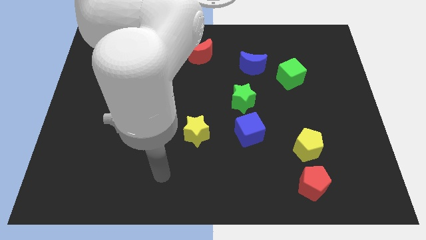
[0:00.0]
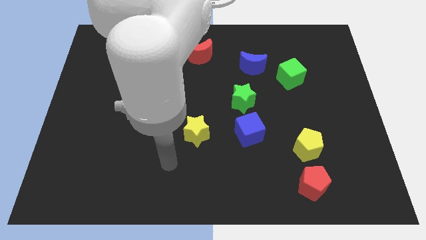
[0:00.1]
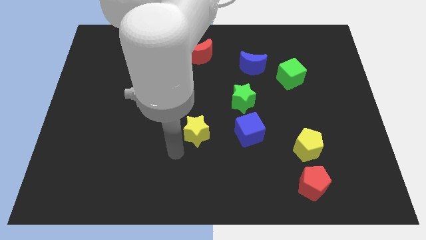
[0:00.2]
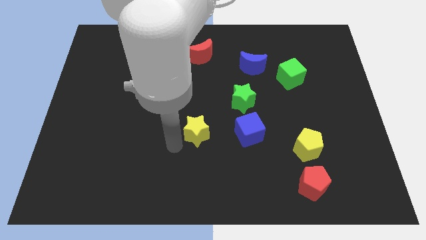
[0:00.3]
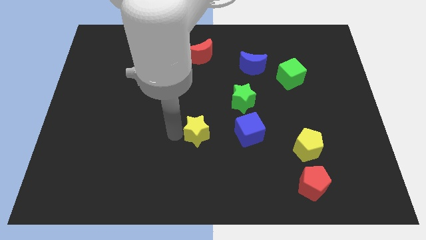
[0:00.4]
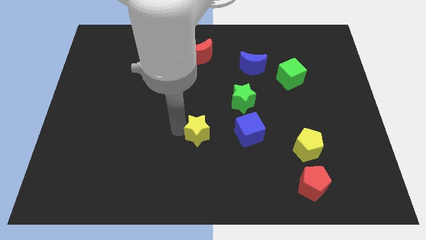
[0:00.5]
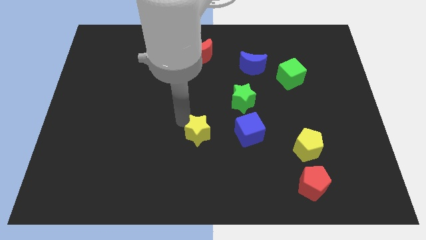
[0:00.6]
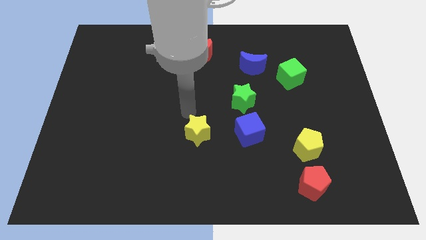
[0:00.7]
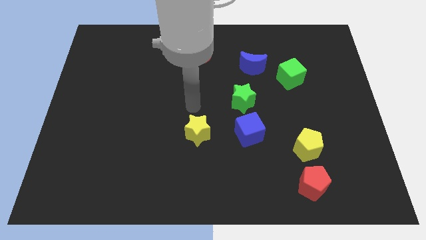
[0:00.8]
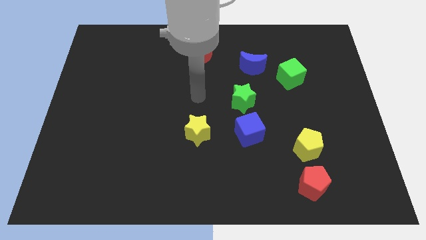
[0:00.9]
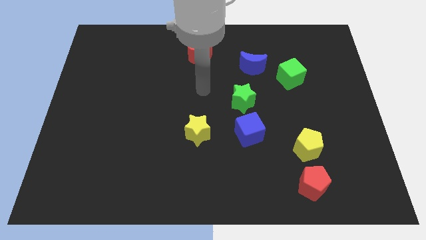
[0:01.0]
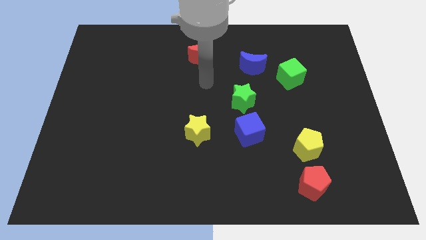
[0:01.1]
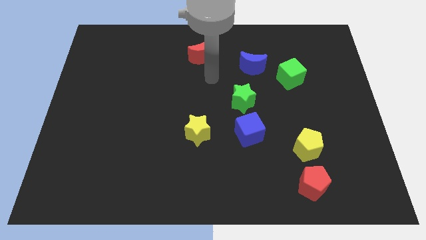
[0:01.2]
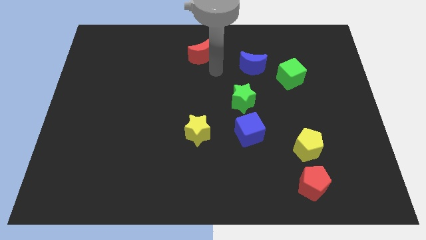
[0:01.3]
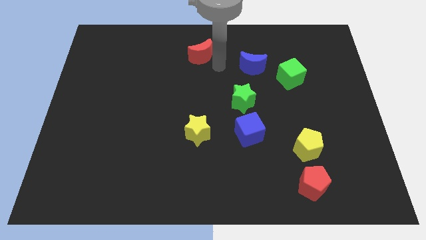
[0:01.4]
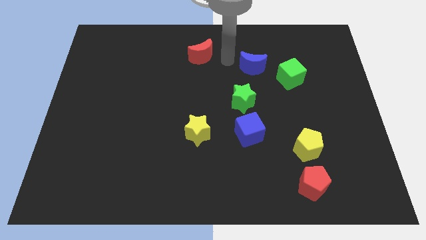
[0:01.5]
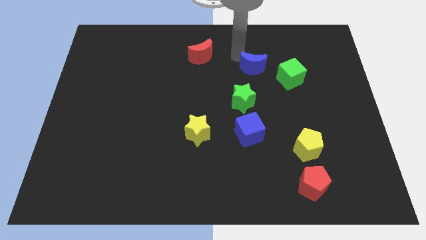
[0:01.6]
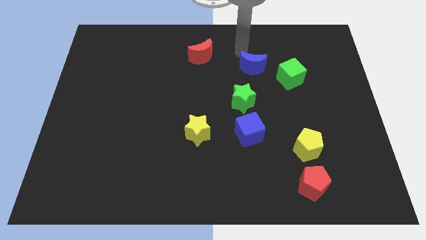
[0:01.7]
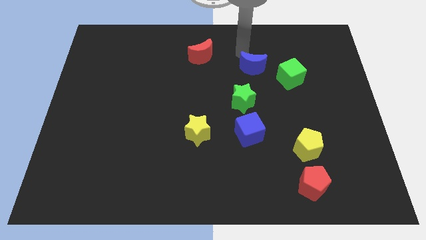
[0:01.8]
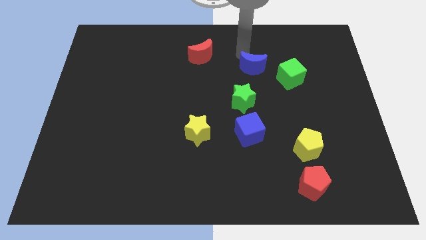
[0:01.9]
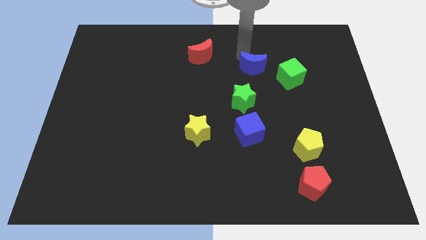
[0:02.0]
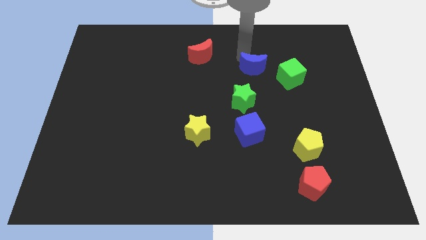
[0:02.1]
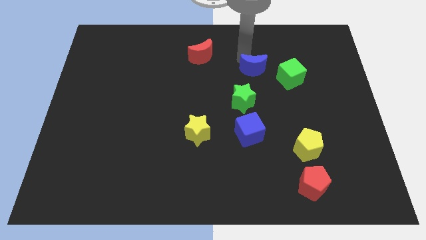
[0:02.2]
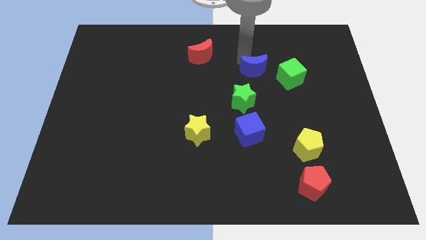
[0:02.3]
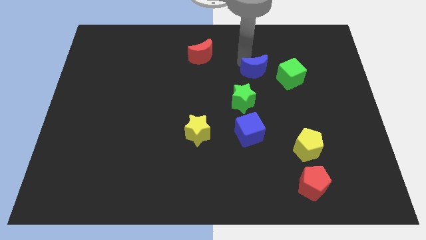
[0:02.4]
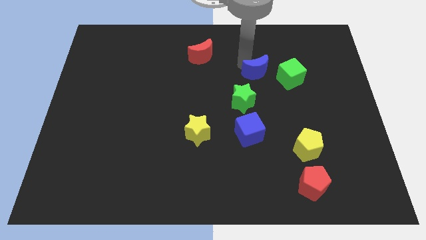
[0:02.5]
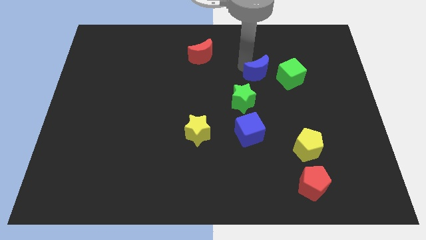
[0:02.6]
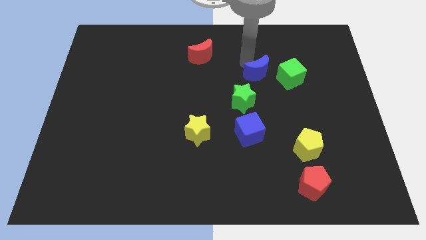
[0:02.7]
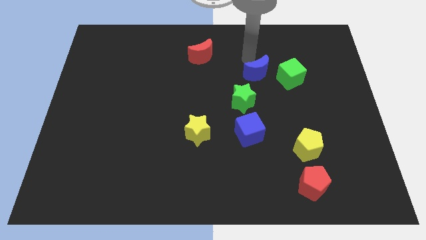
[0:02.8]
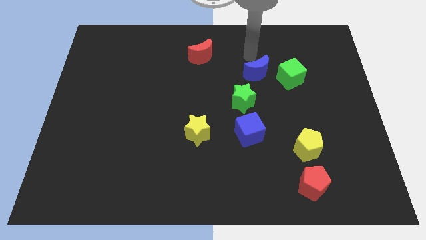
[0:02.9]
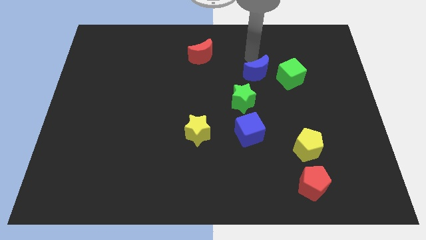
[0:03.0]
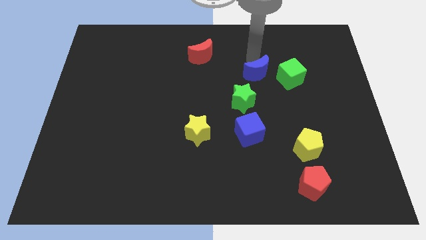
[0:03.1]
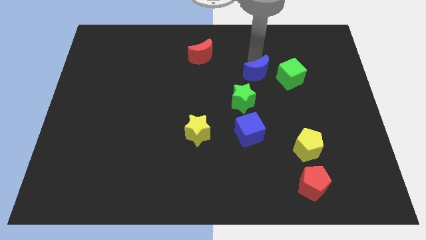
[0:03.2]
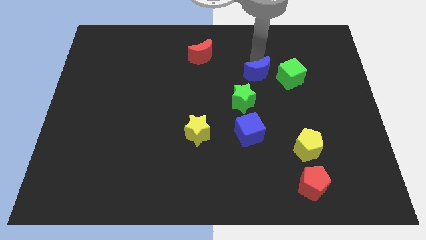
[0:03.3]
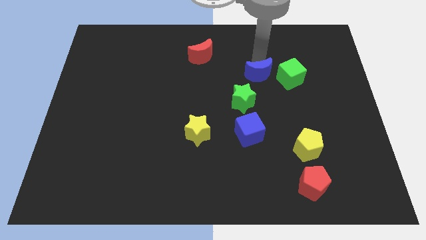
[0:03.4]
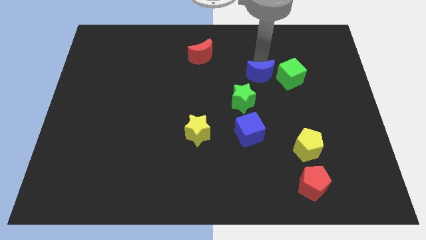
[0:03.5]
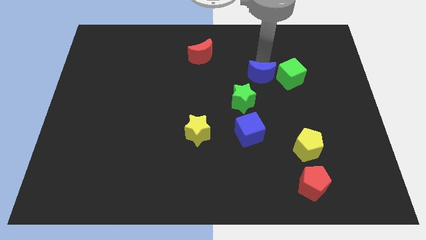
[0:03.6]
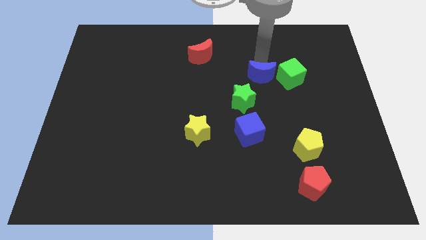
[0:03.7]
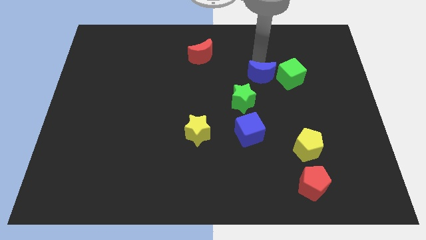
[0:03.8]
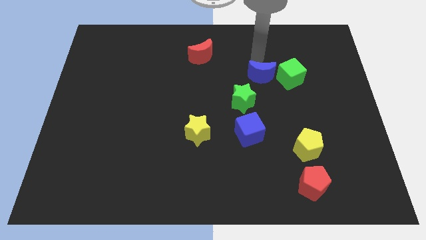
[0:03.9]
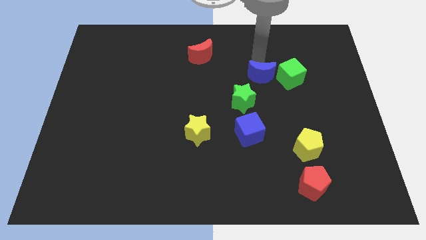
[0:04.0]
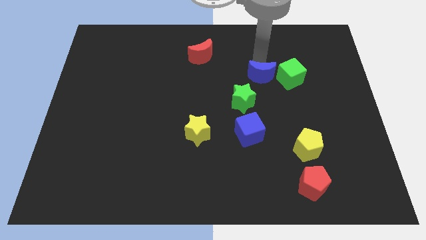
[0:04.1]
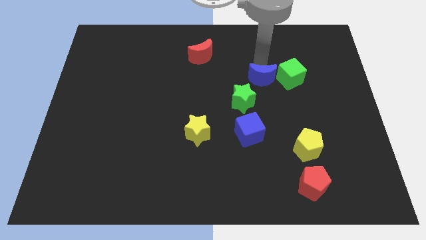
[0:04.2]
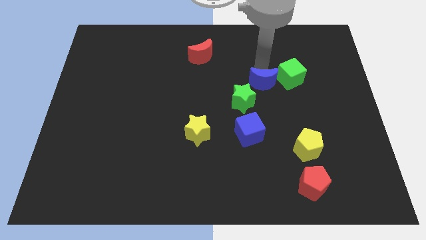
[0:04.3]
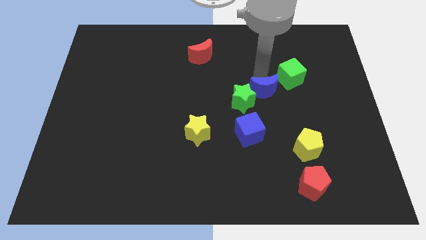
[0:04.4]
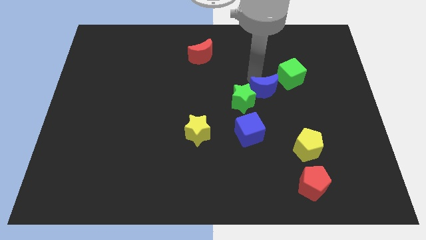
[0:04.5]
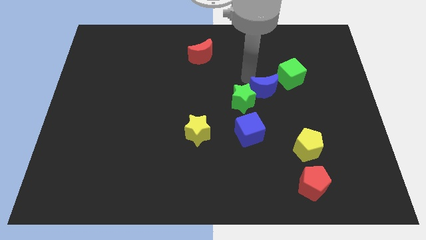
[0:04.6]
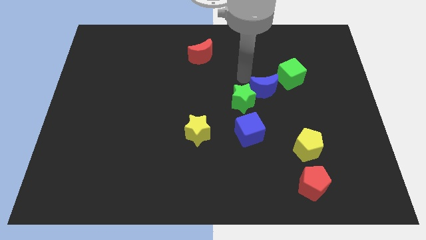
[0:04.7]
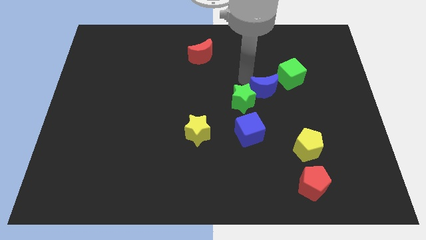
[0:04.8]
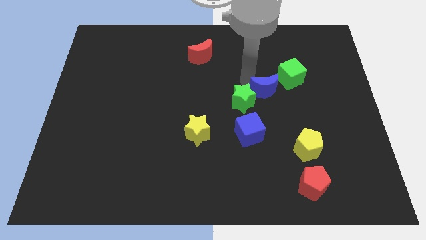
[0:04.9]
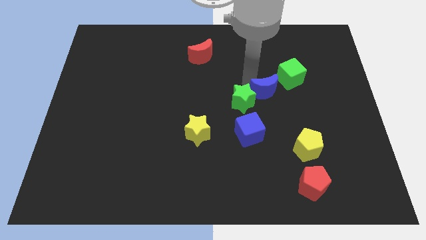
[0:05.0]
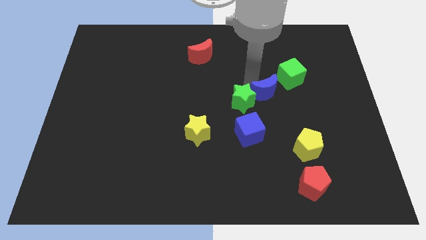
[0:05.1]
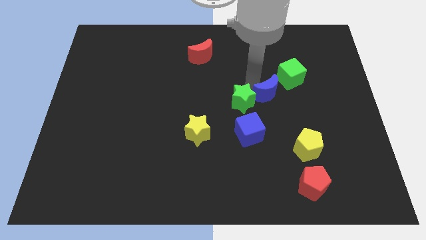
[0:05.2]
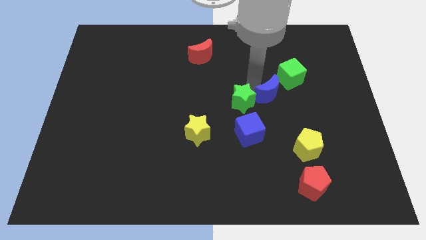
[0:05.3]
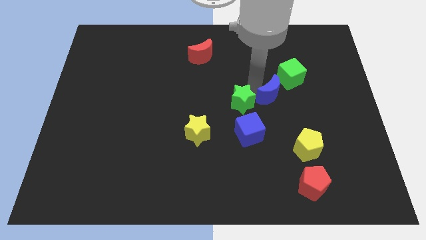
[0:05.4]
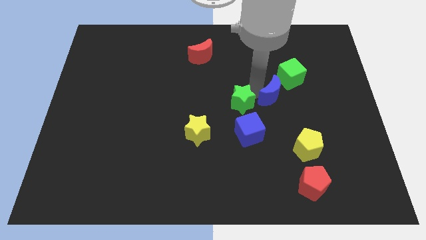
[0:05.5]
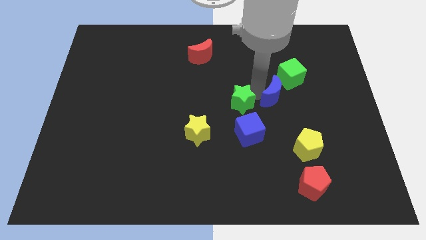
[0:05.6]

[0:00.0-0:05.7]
move the blue moon to the bottom side of the green cube

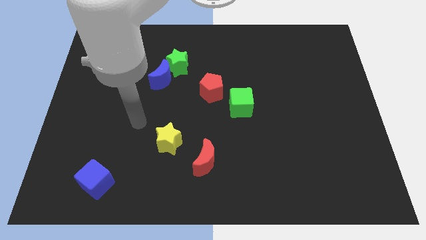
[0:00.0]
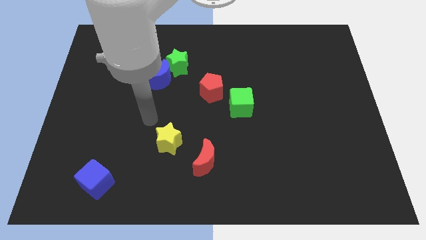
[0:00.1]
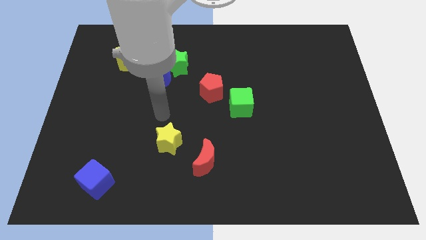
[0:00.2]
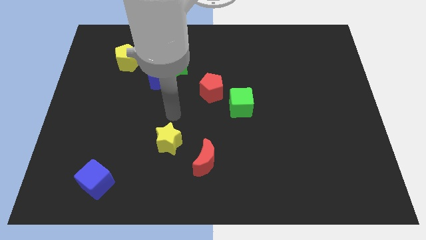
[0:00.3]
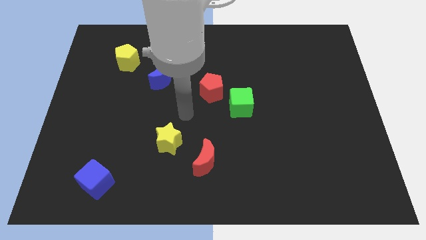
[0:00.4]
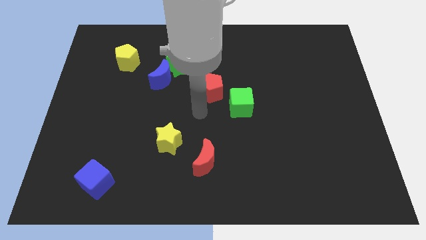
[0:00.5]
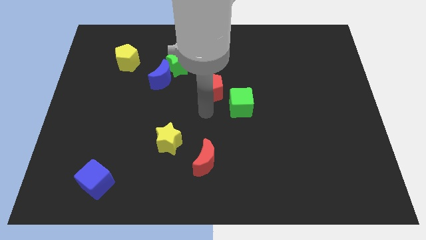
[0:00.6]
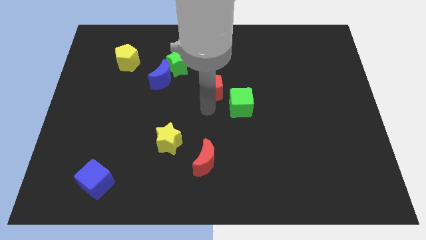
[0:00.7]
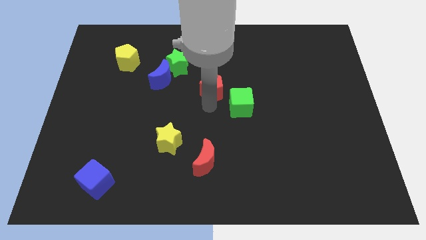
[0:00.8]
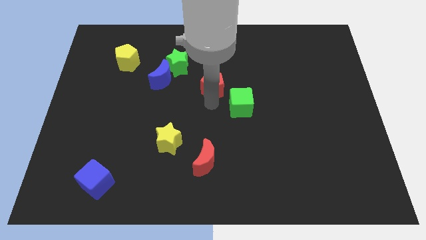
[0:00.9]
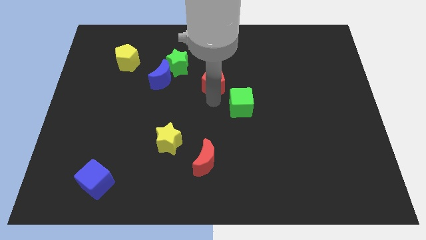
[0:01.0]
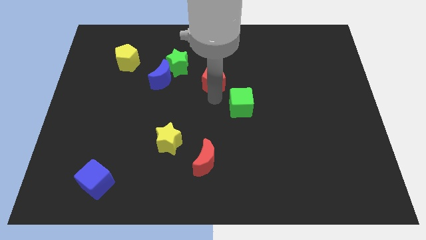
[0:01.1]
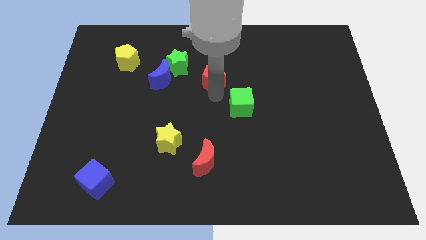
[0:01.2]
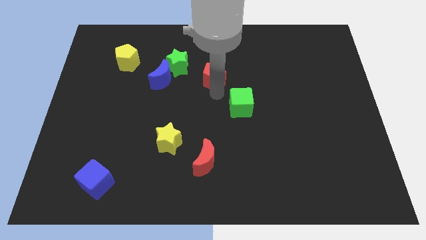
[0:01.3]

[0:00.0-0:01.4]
move the red pentagon to the right of the green star
